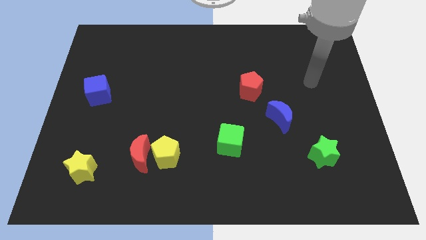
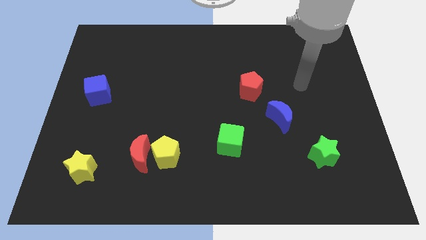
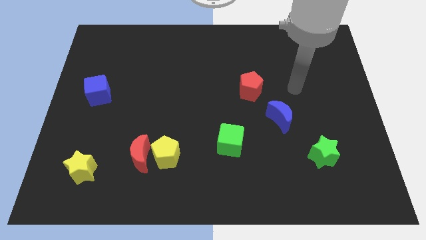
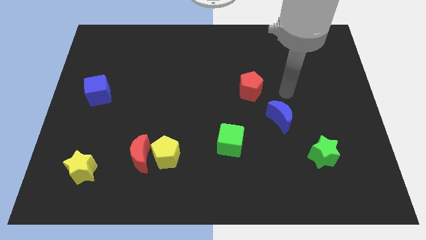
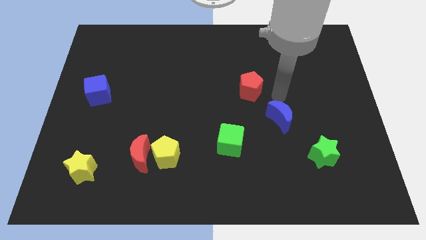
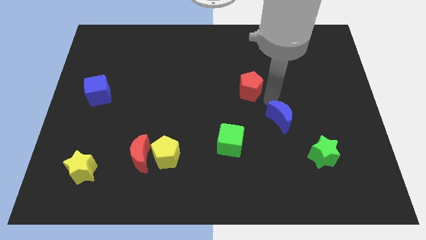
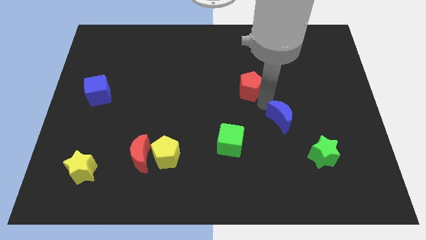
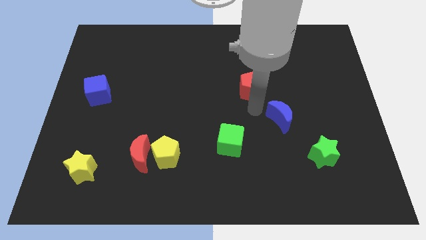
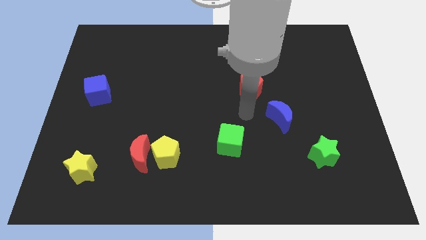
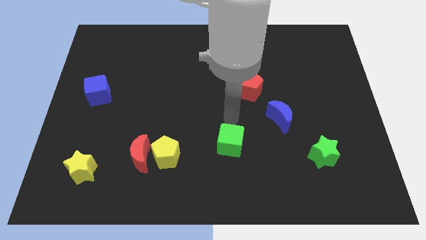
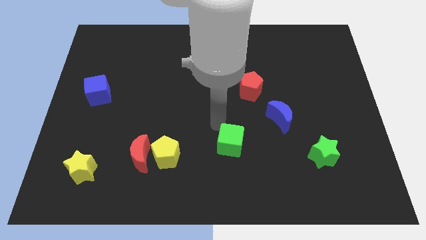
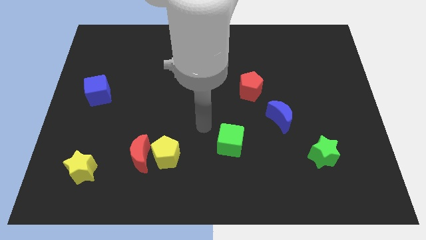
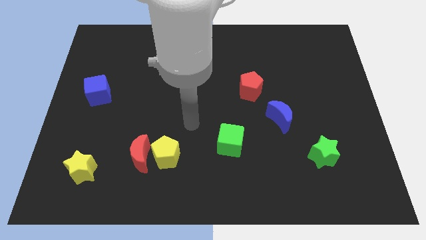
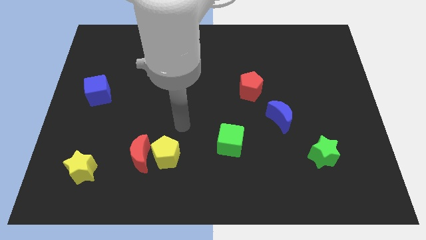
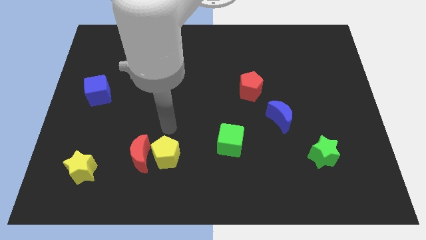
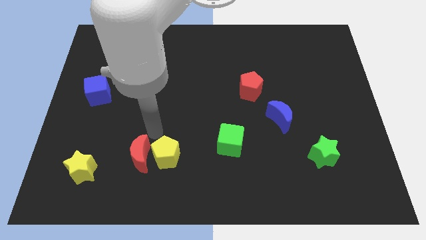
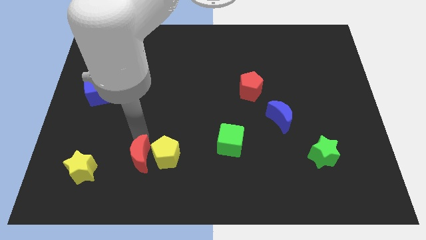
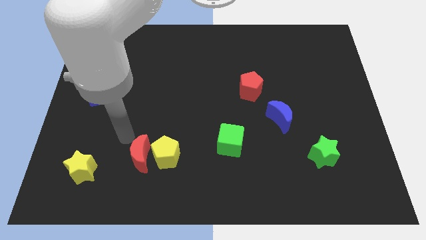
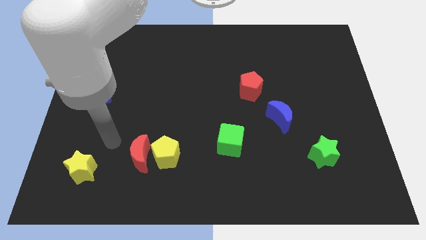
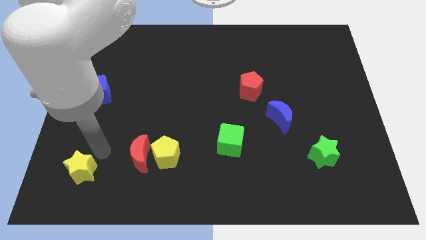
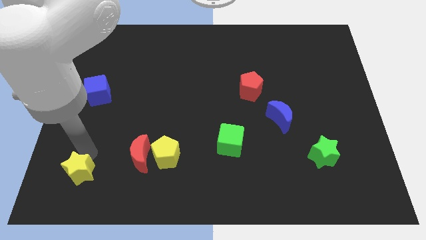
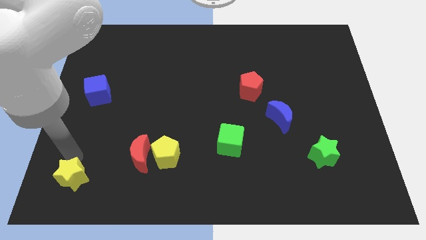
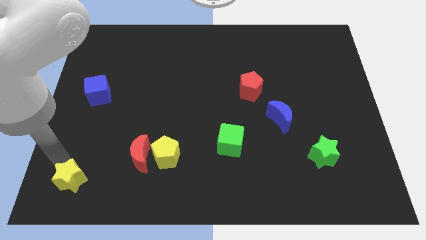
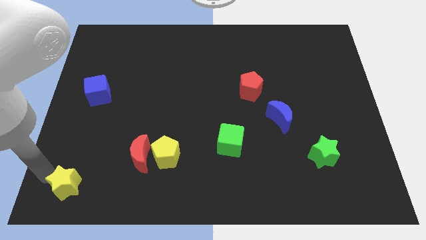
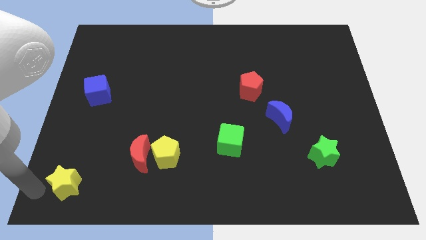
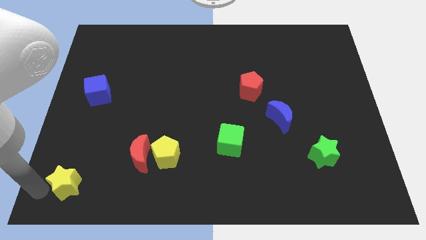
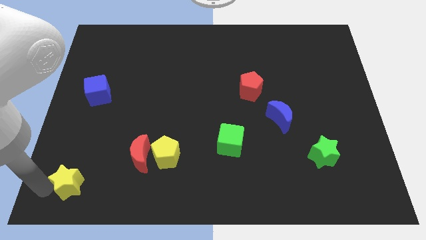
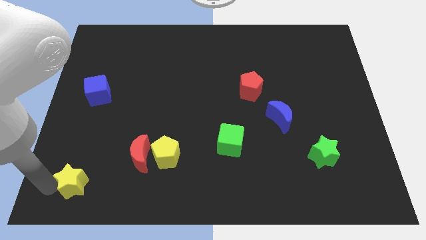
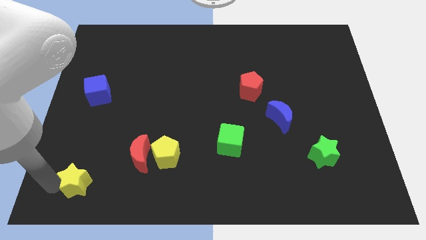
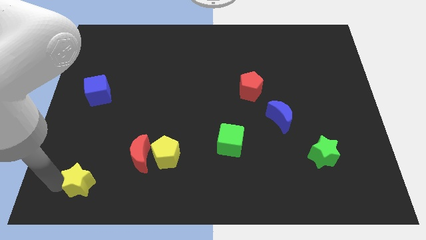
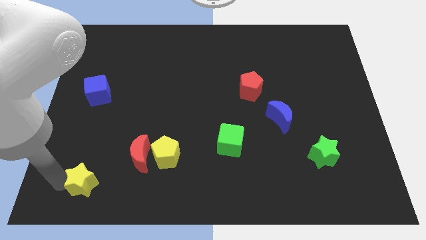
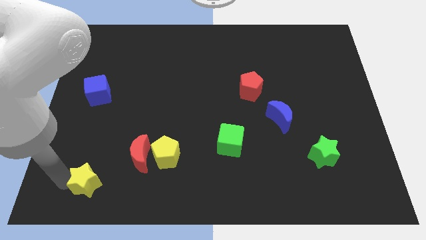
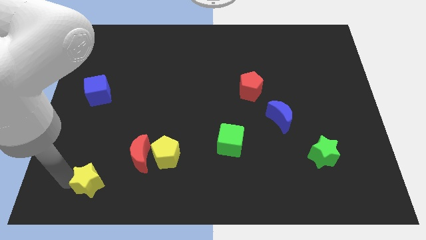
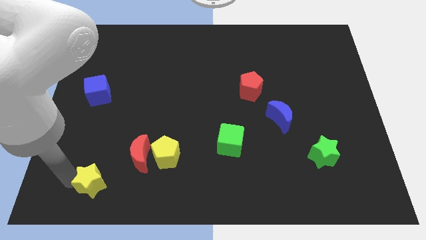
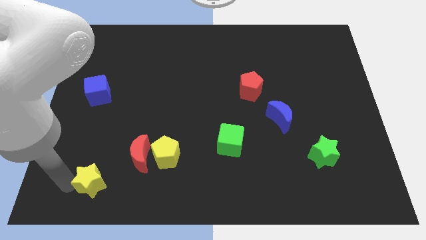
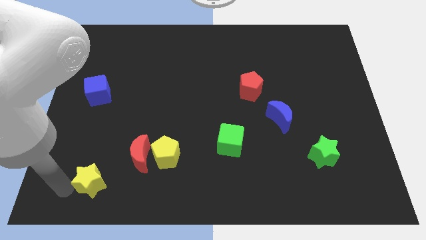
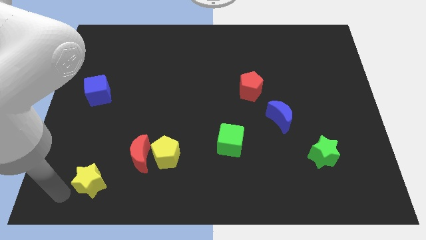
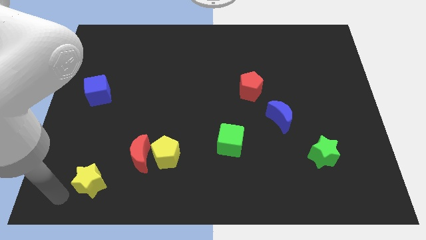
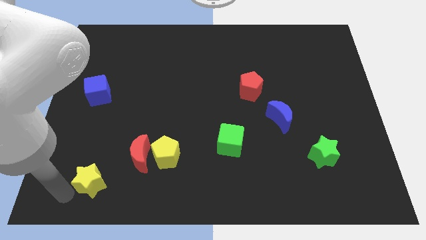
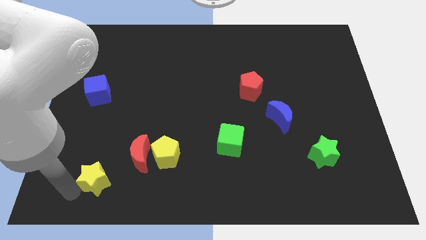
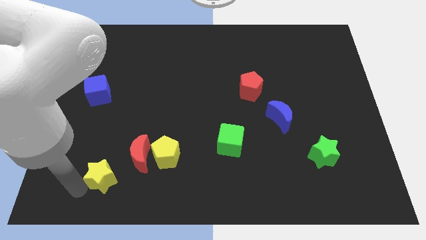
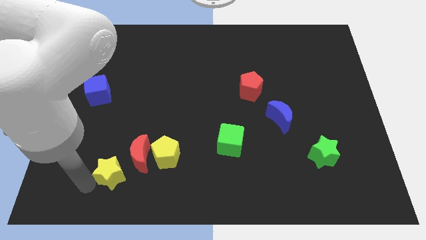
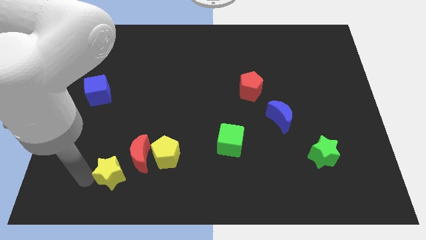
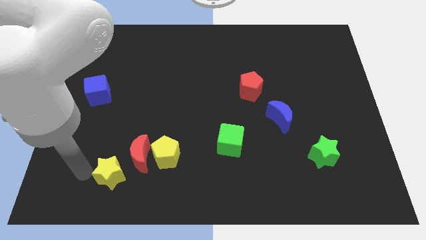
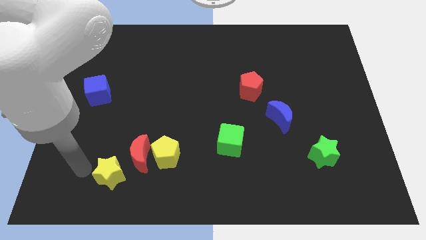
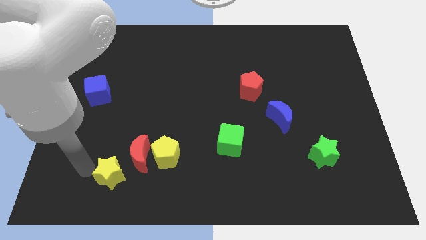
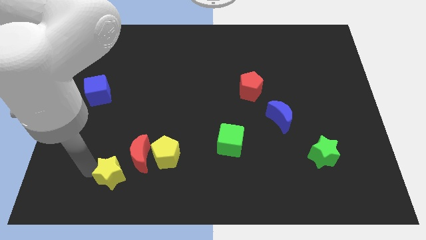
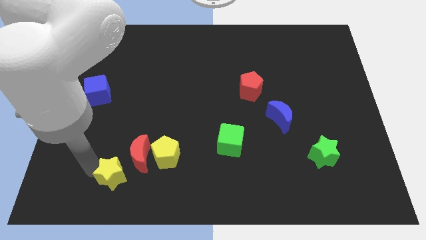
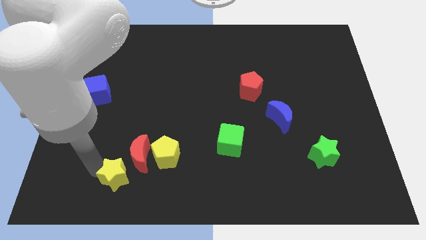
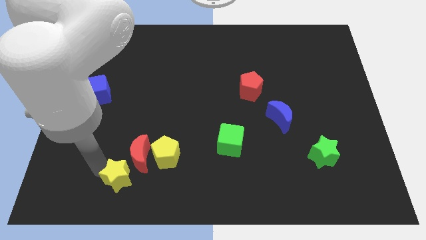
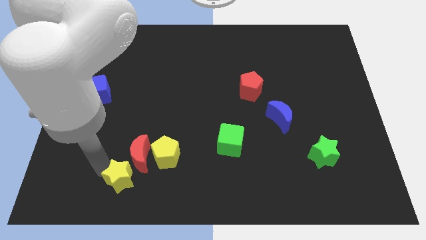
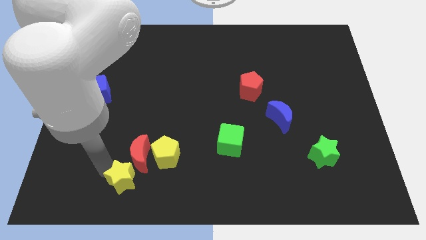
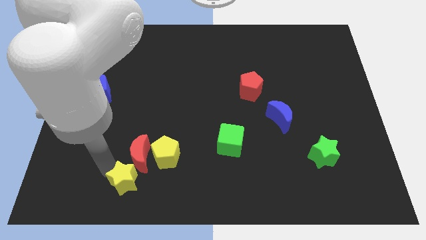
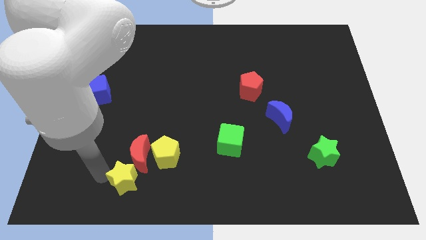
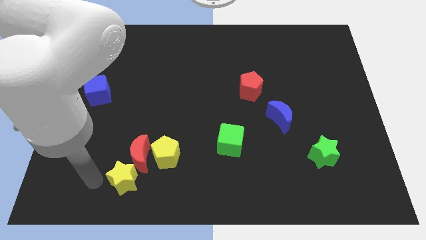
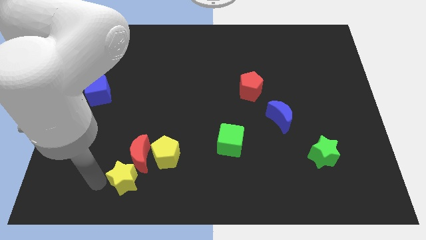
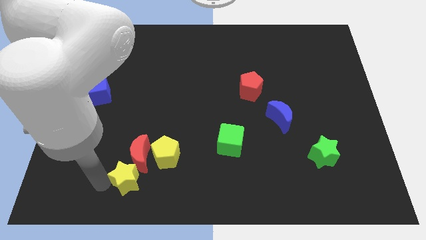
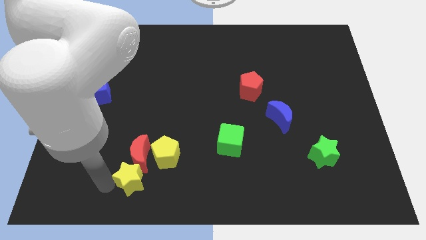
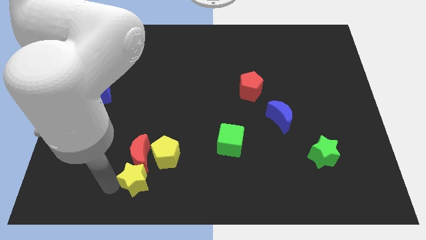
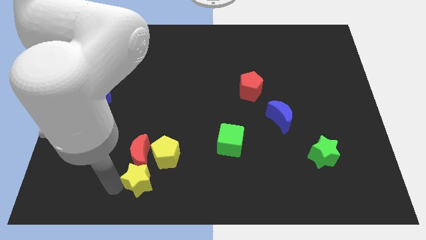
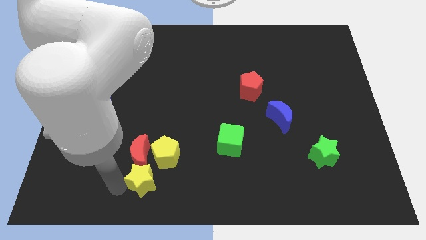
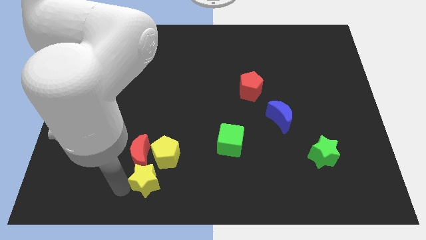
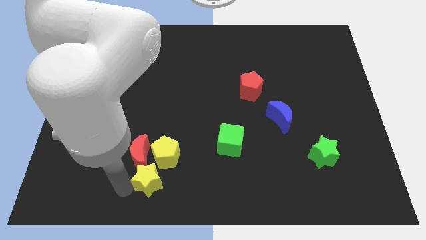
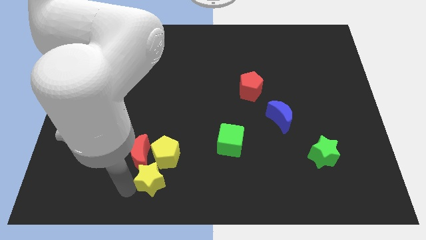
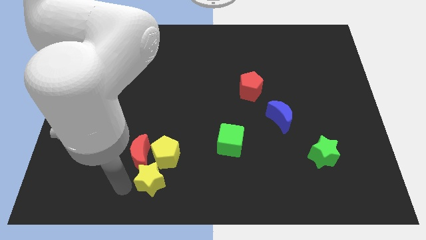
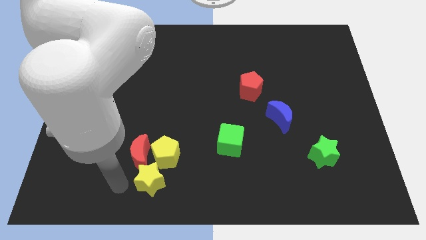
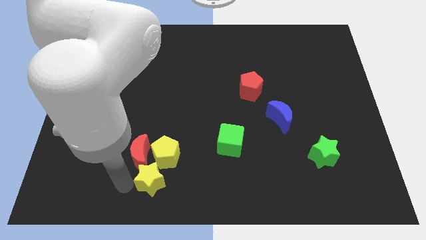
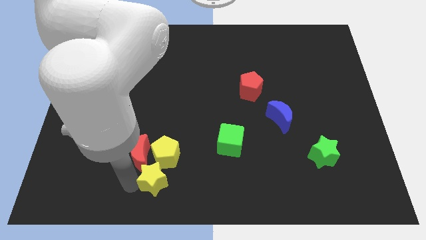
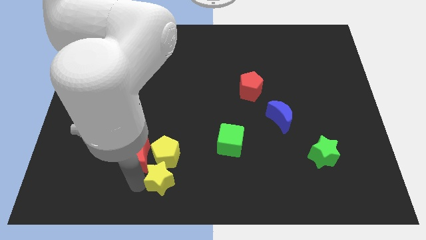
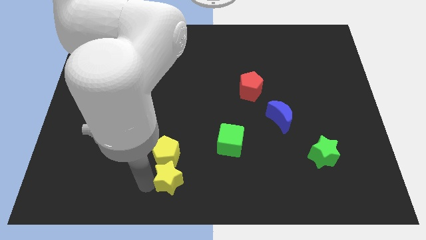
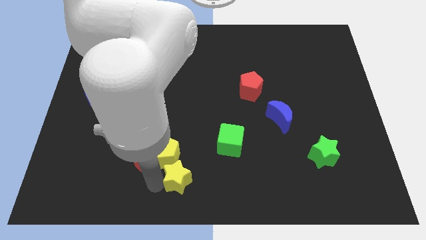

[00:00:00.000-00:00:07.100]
push the yellow star right

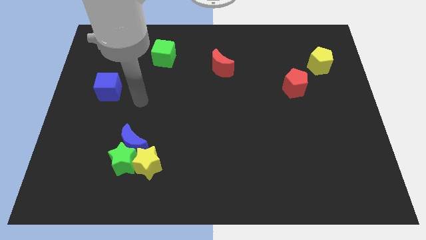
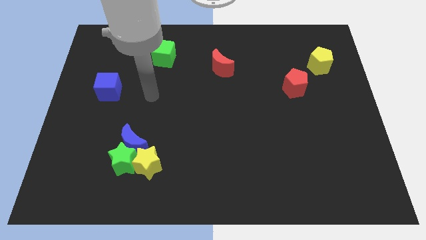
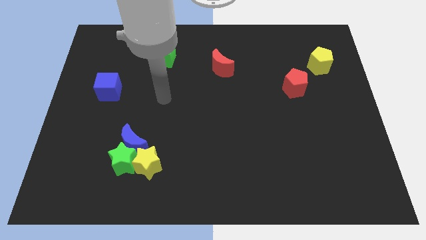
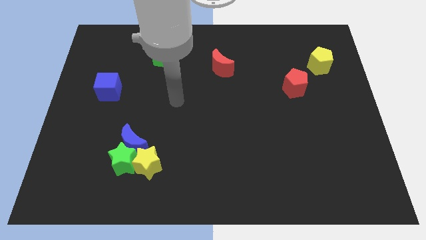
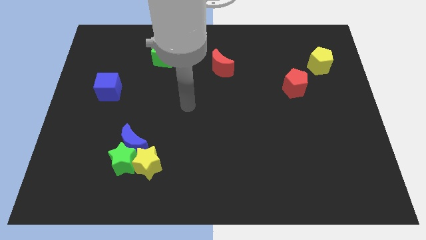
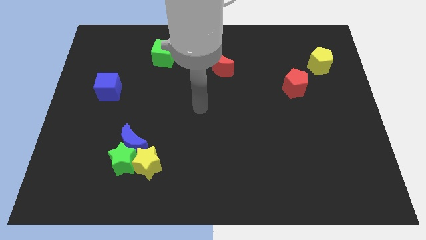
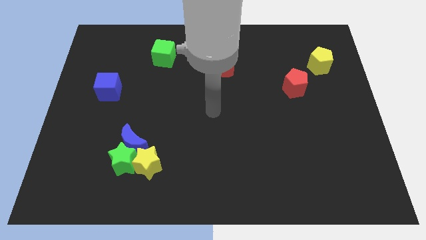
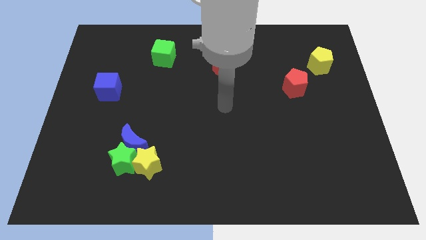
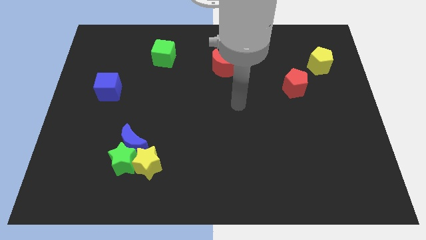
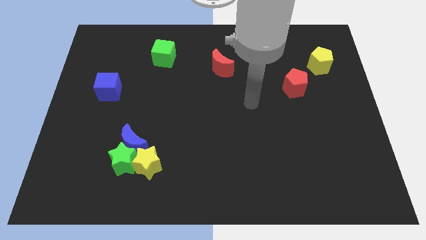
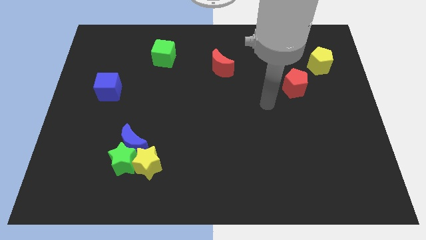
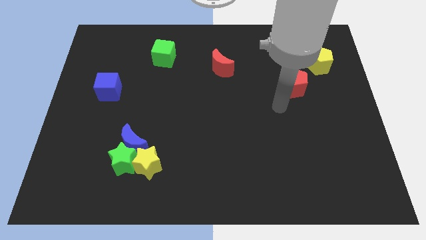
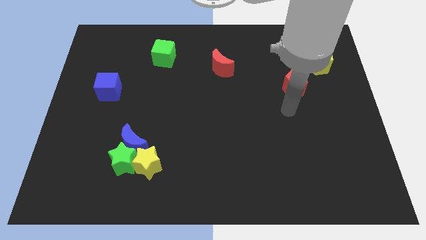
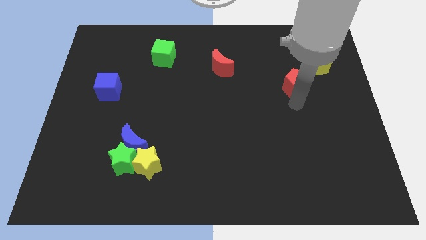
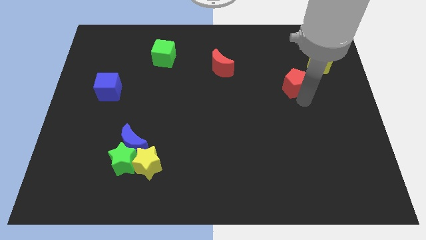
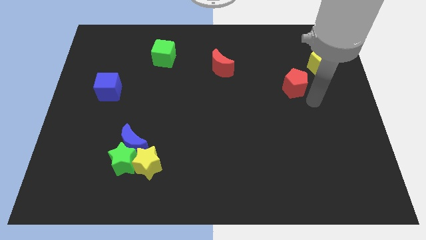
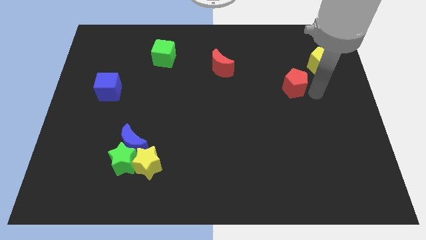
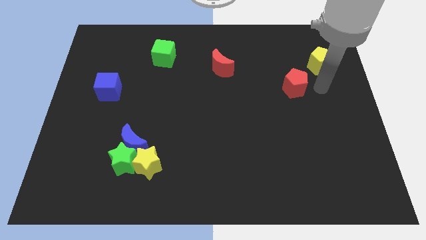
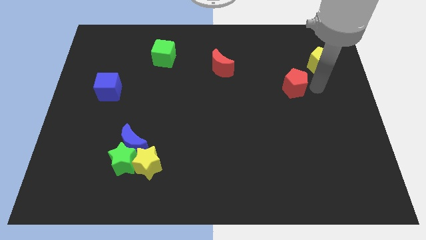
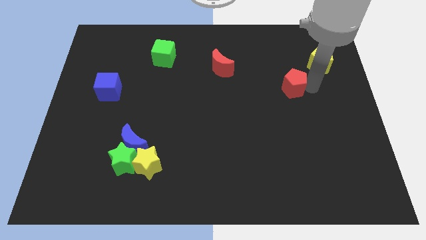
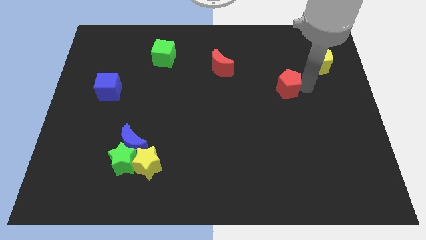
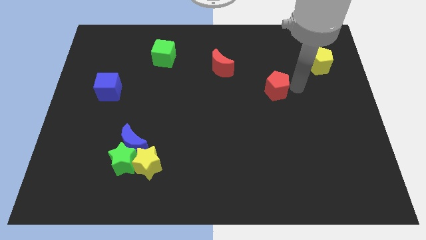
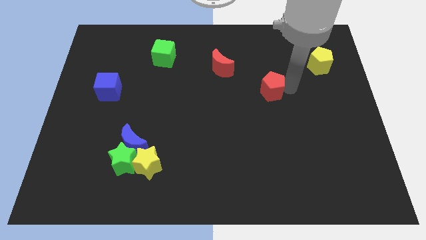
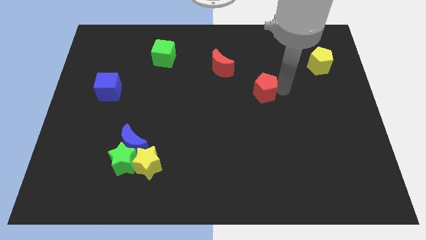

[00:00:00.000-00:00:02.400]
move the red pentagon somewhat left
